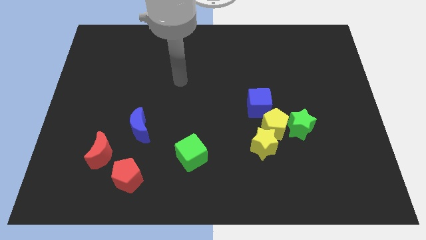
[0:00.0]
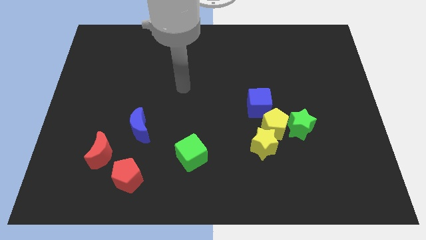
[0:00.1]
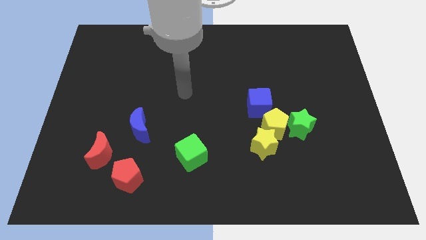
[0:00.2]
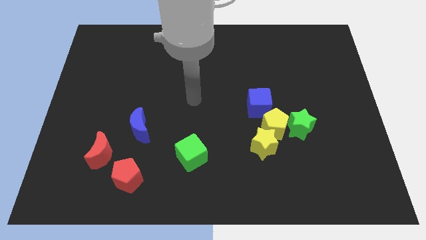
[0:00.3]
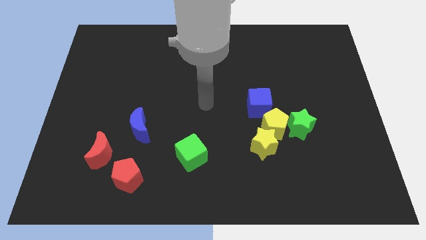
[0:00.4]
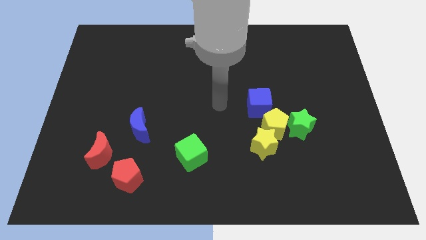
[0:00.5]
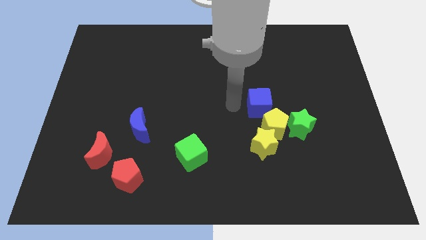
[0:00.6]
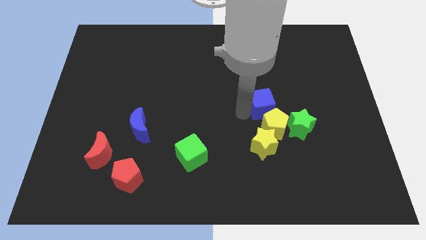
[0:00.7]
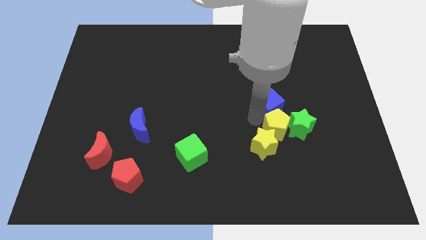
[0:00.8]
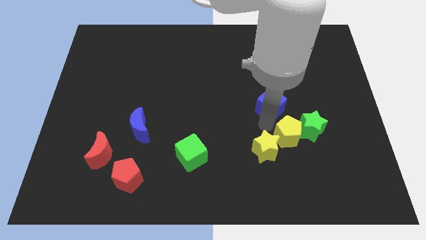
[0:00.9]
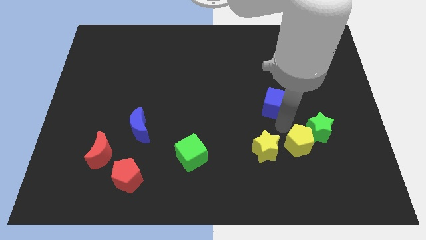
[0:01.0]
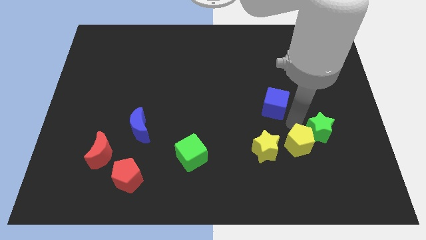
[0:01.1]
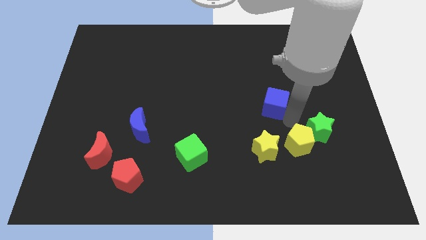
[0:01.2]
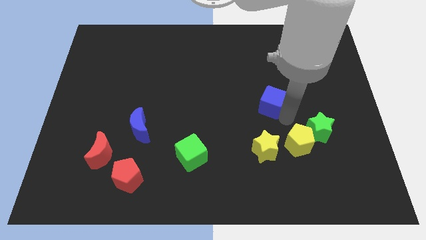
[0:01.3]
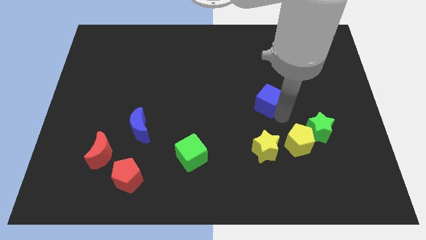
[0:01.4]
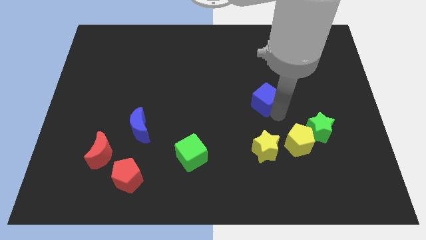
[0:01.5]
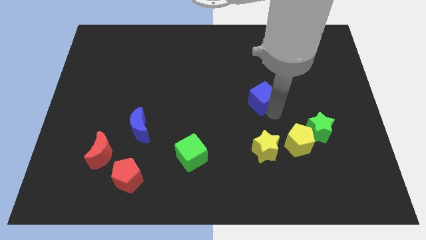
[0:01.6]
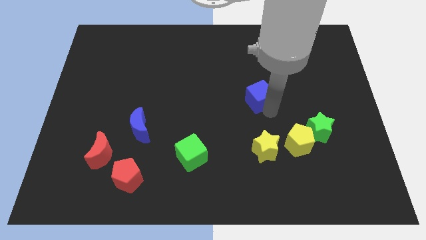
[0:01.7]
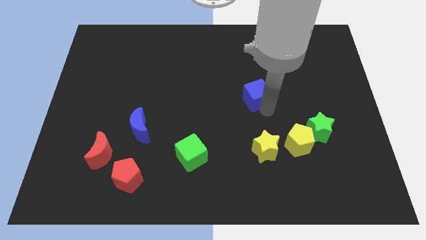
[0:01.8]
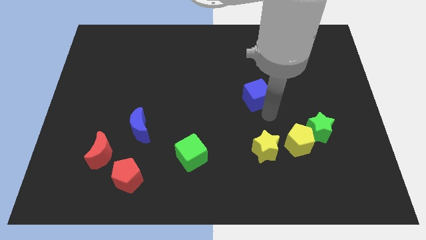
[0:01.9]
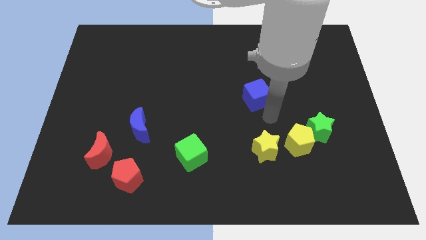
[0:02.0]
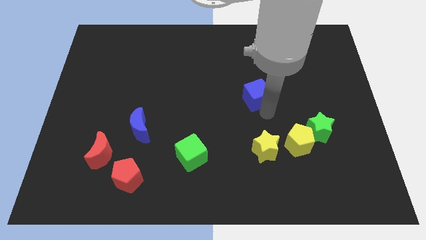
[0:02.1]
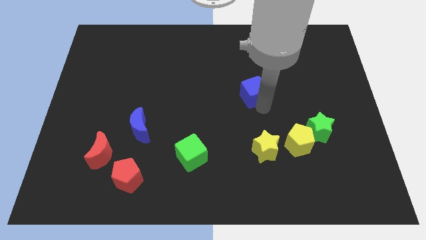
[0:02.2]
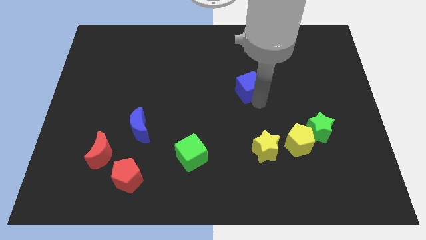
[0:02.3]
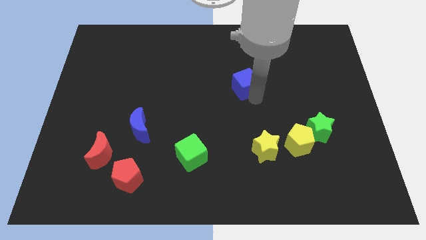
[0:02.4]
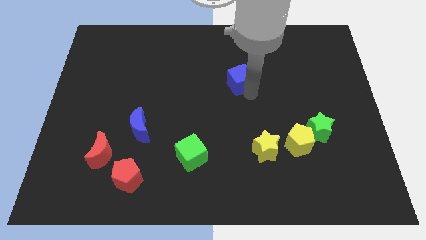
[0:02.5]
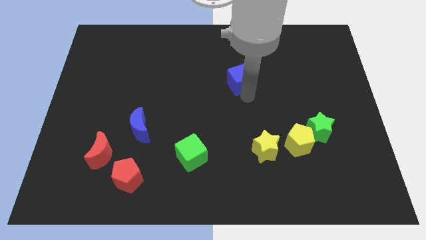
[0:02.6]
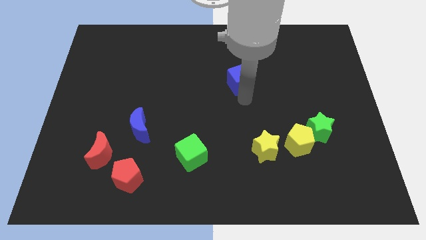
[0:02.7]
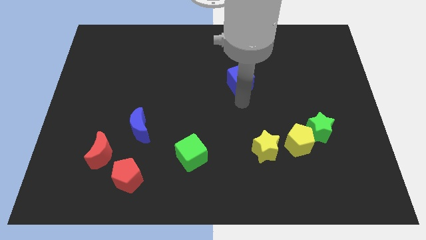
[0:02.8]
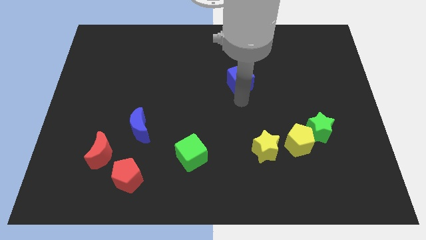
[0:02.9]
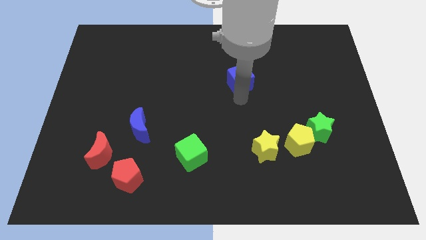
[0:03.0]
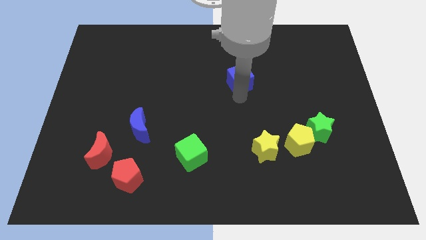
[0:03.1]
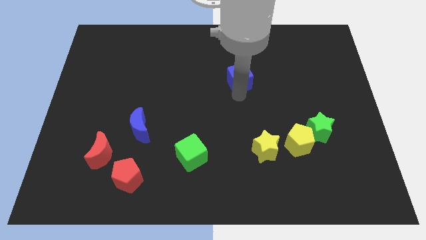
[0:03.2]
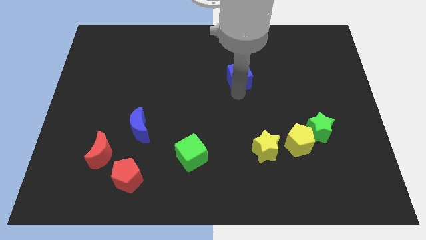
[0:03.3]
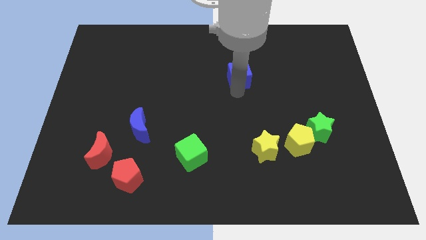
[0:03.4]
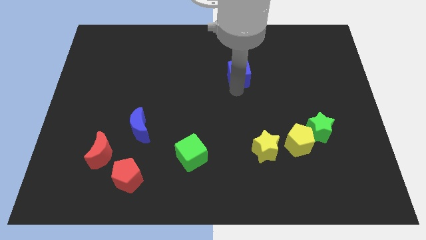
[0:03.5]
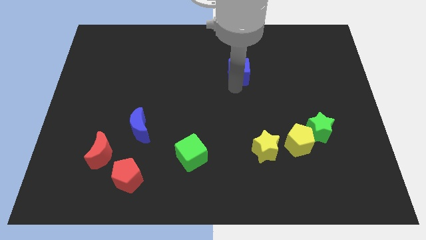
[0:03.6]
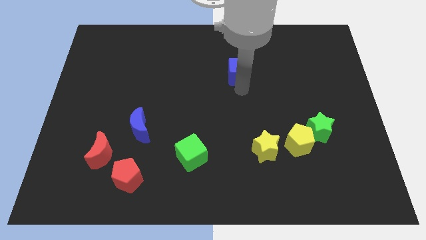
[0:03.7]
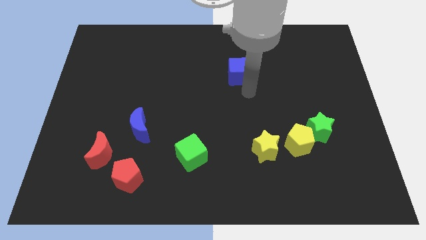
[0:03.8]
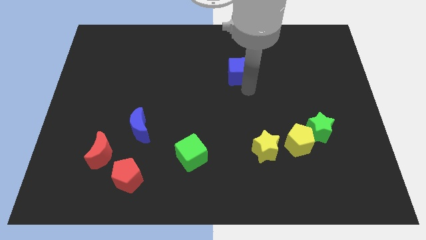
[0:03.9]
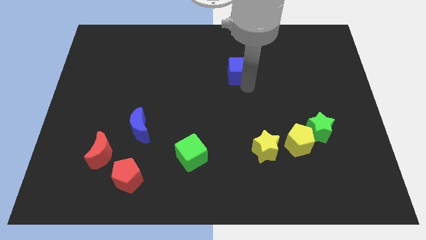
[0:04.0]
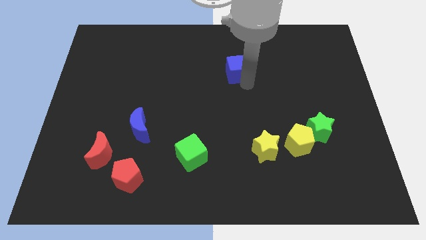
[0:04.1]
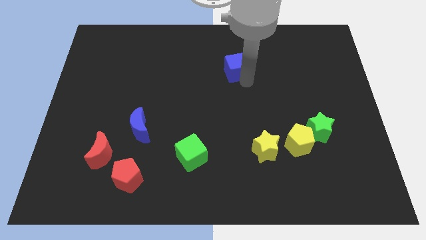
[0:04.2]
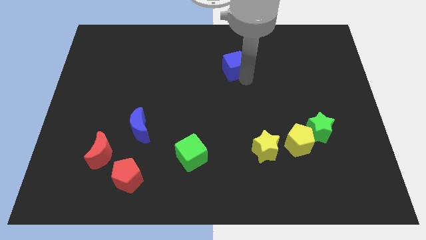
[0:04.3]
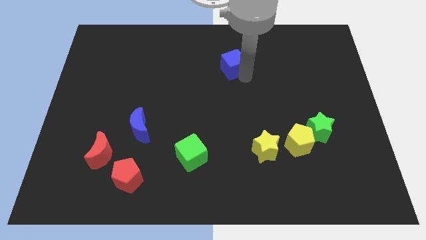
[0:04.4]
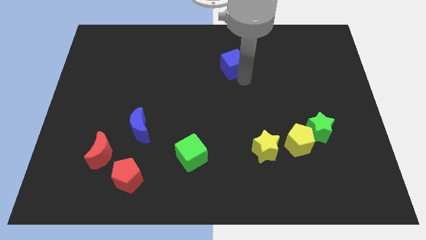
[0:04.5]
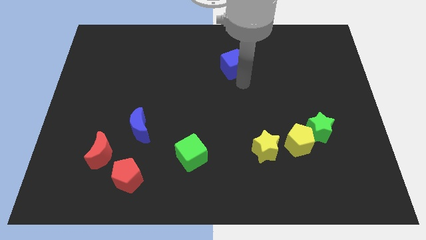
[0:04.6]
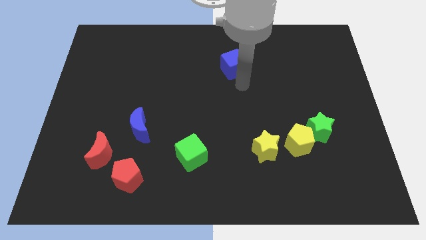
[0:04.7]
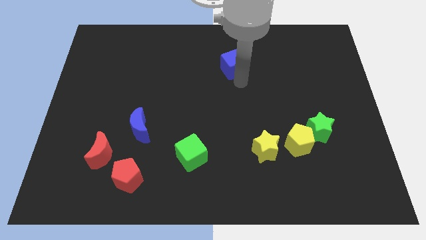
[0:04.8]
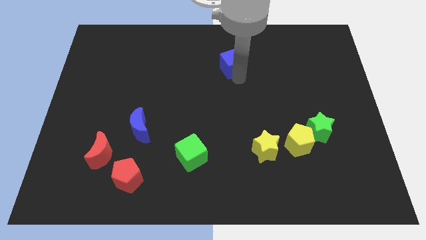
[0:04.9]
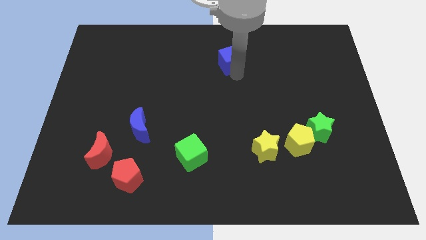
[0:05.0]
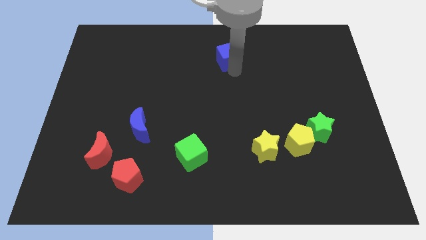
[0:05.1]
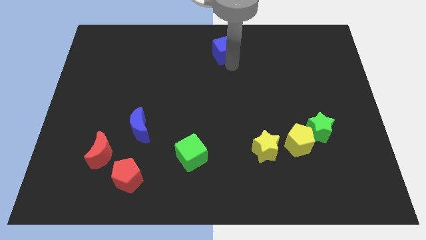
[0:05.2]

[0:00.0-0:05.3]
push the blue cube to the towards your base
